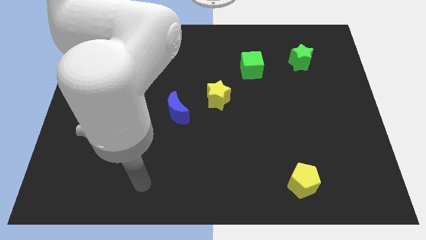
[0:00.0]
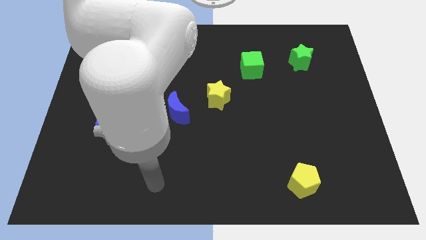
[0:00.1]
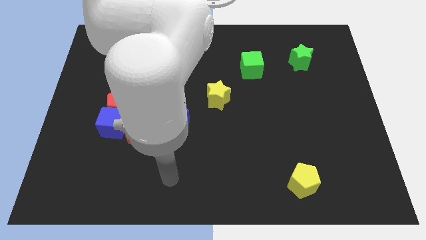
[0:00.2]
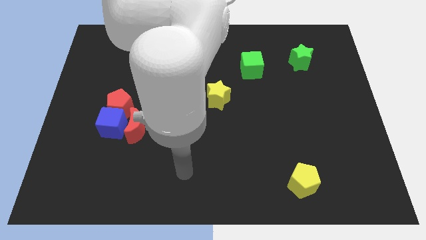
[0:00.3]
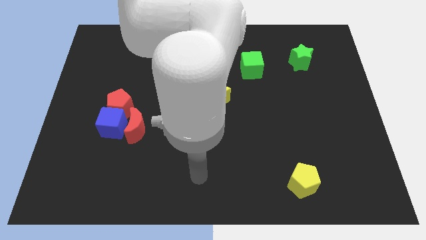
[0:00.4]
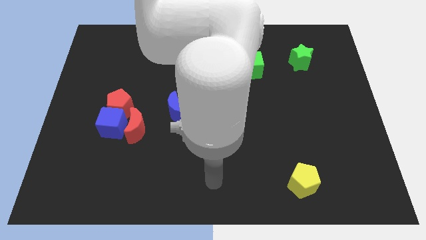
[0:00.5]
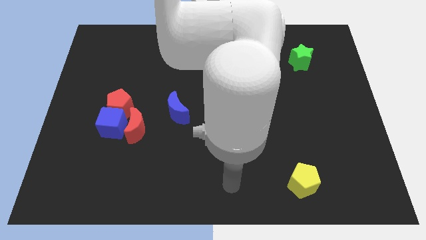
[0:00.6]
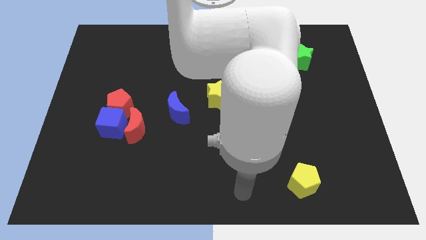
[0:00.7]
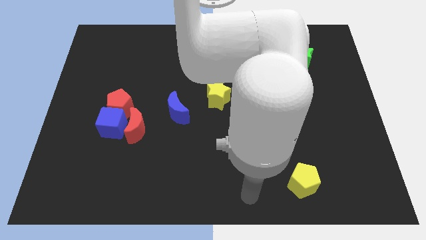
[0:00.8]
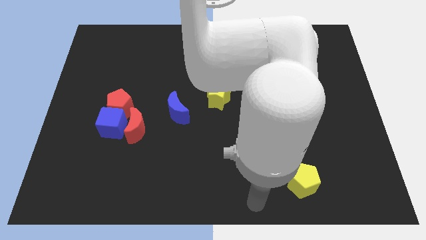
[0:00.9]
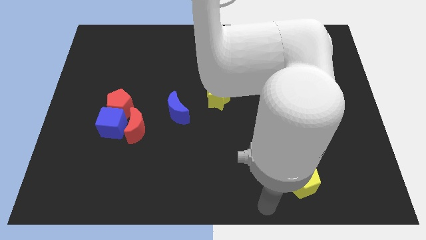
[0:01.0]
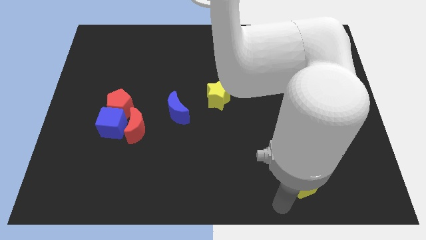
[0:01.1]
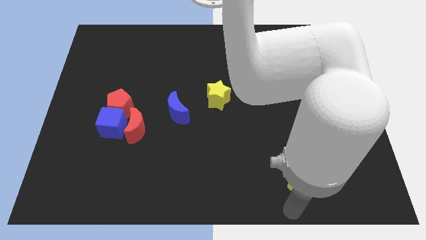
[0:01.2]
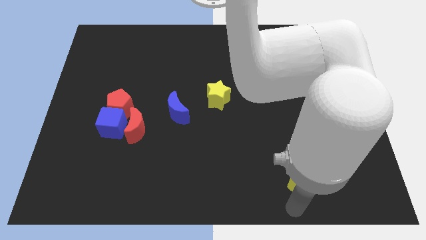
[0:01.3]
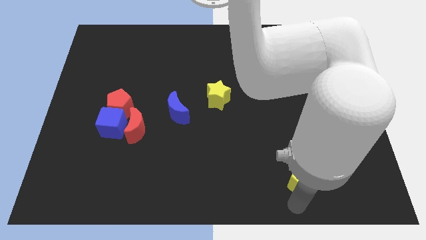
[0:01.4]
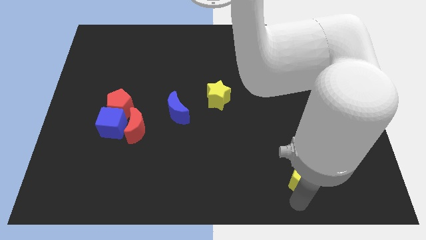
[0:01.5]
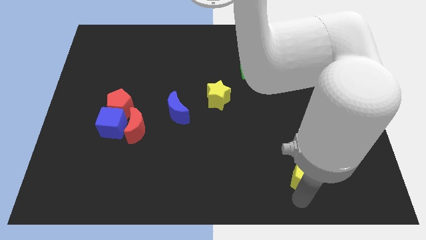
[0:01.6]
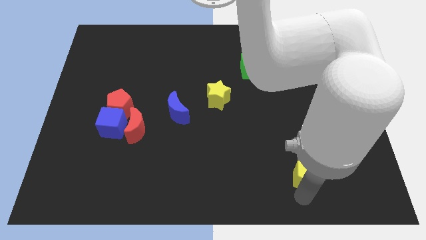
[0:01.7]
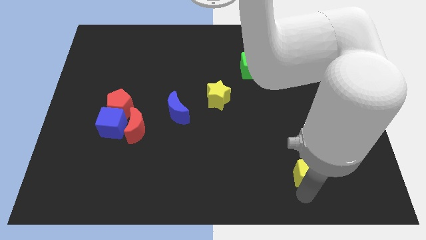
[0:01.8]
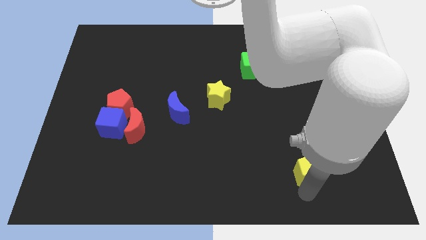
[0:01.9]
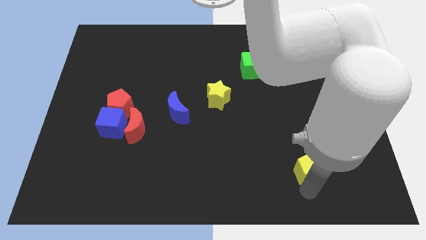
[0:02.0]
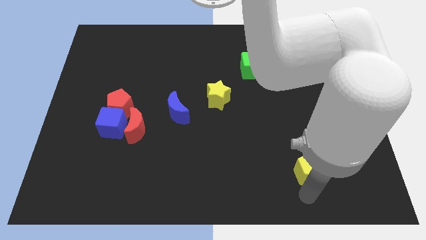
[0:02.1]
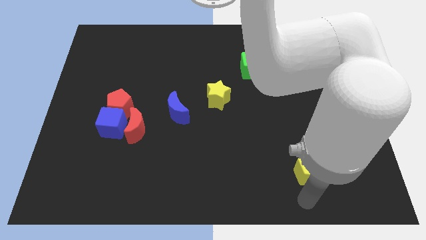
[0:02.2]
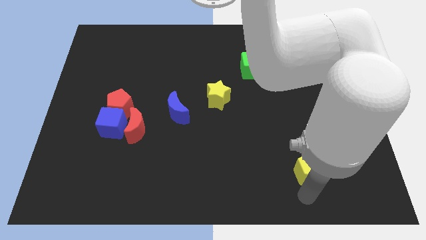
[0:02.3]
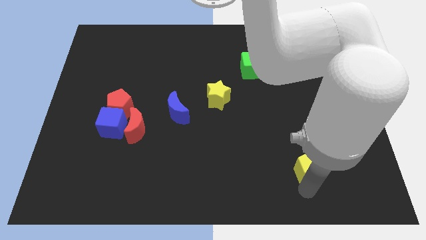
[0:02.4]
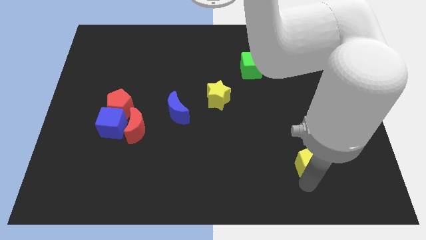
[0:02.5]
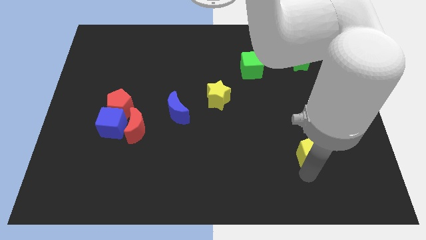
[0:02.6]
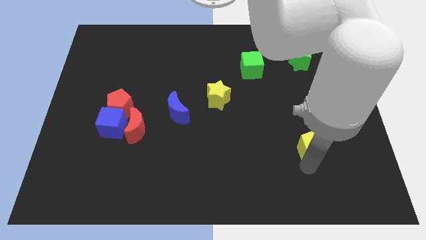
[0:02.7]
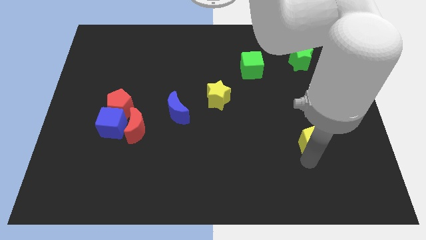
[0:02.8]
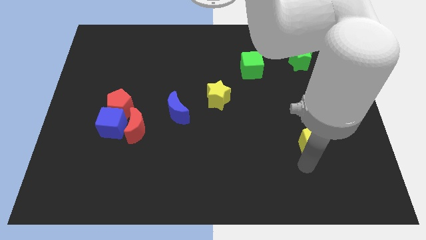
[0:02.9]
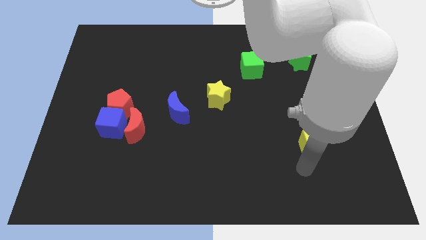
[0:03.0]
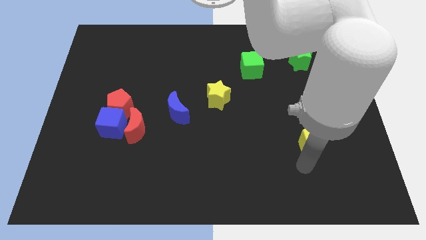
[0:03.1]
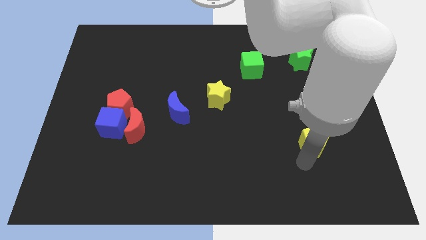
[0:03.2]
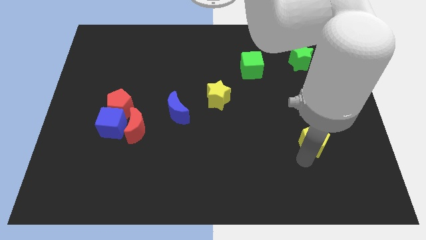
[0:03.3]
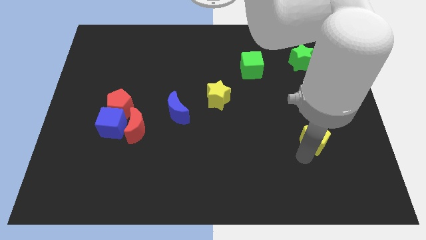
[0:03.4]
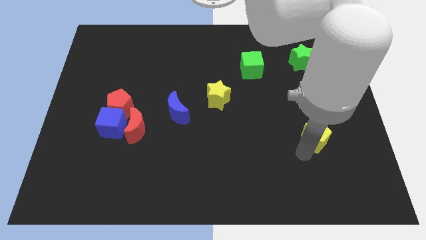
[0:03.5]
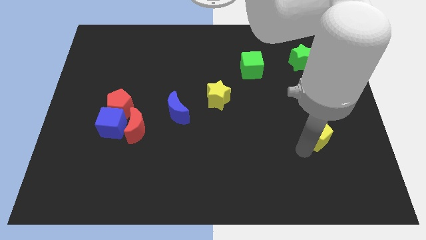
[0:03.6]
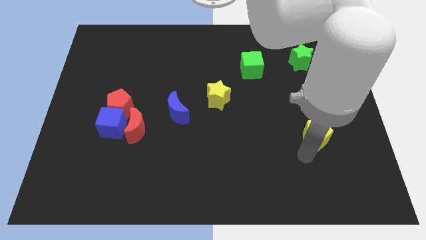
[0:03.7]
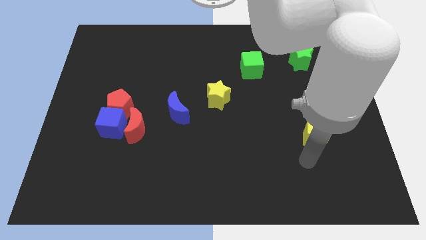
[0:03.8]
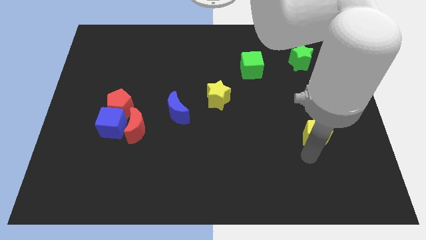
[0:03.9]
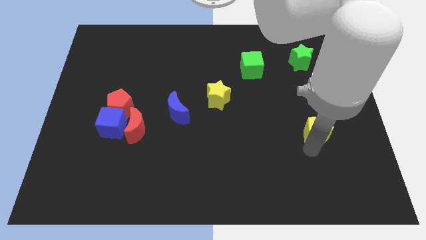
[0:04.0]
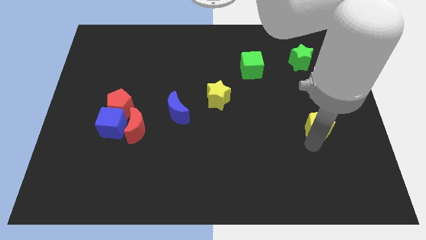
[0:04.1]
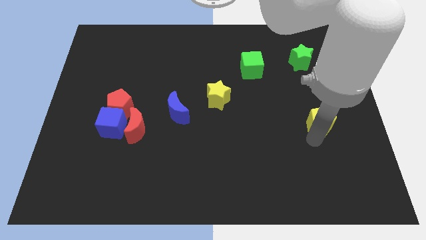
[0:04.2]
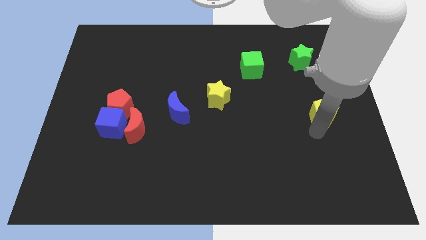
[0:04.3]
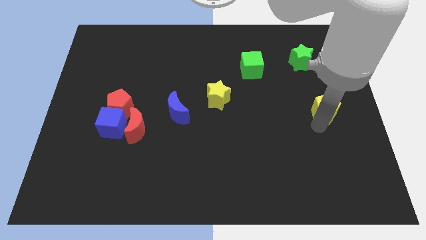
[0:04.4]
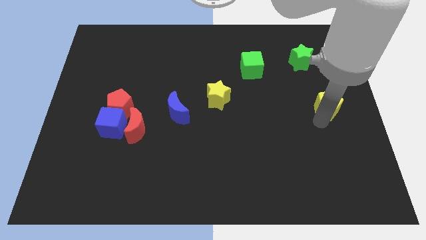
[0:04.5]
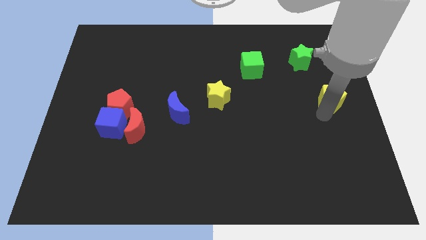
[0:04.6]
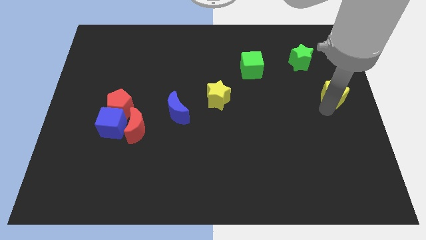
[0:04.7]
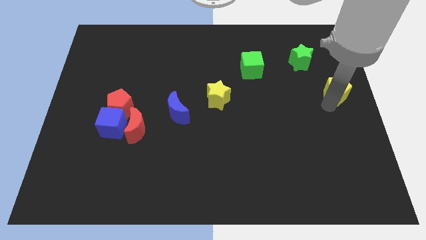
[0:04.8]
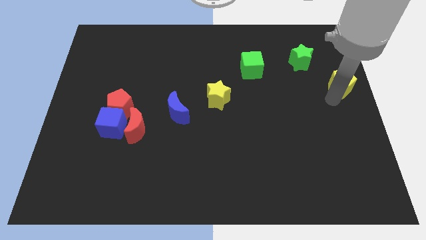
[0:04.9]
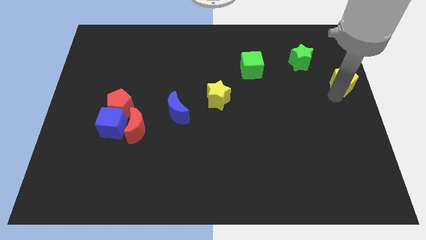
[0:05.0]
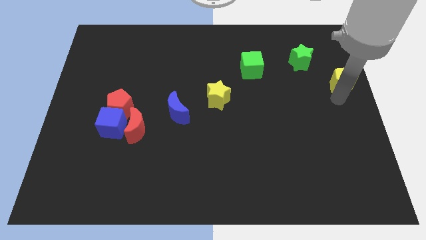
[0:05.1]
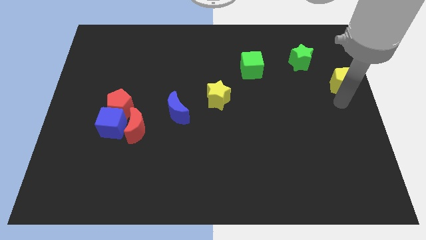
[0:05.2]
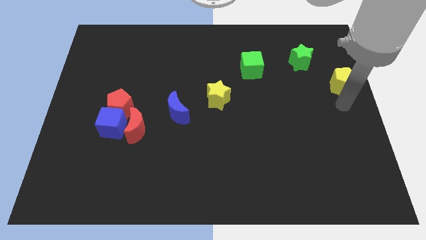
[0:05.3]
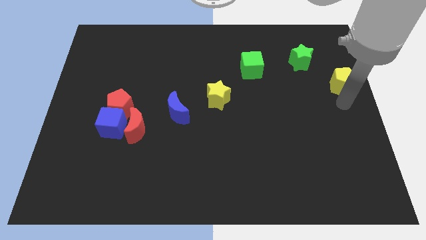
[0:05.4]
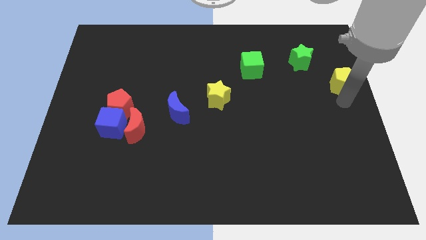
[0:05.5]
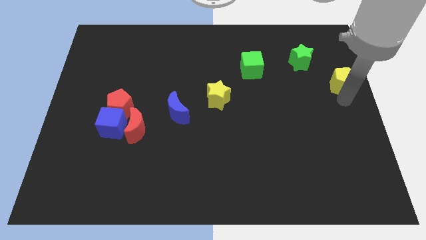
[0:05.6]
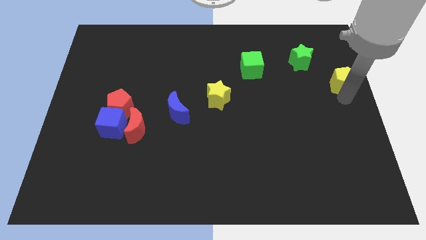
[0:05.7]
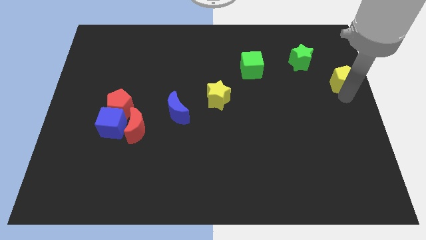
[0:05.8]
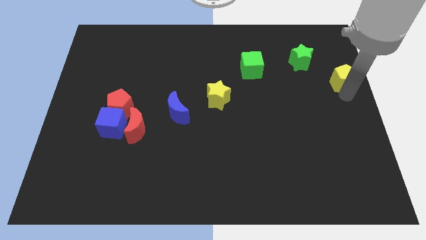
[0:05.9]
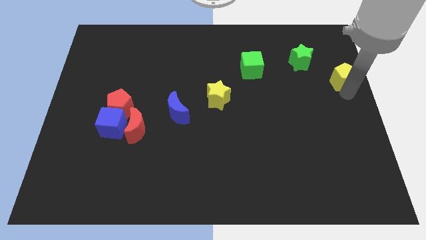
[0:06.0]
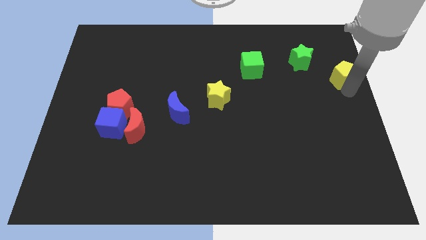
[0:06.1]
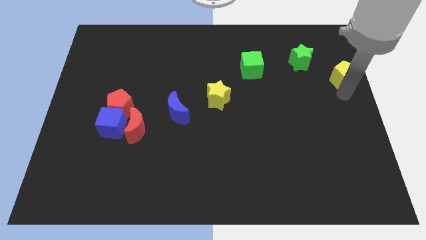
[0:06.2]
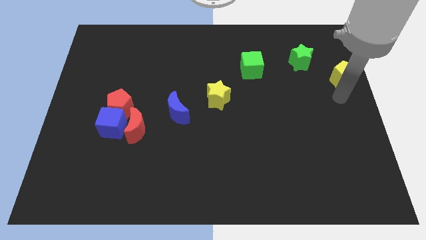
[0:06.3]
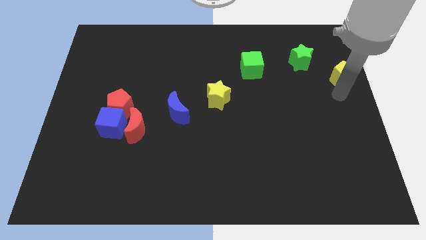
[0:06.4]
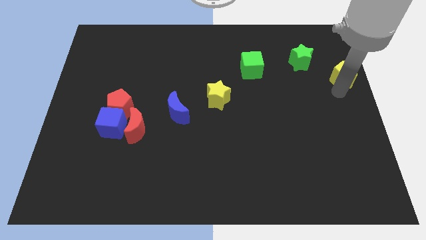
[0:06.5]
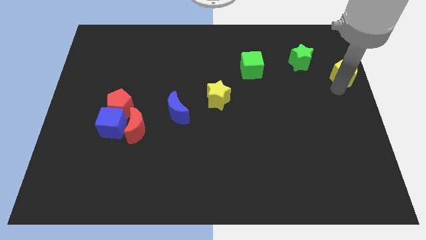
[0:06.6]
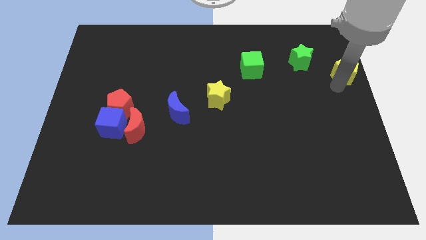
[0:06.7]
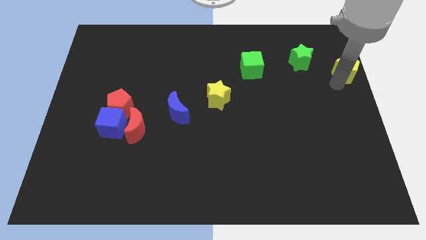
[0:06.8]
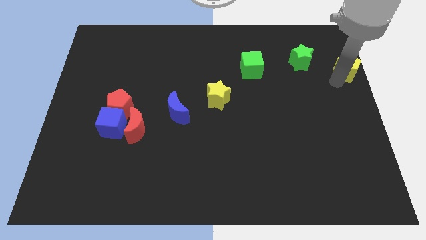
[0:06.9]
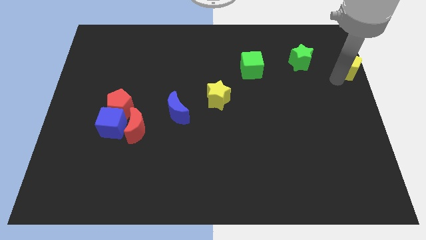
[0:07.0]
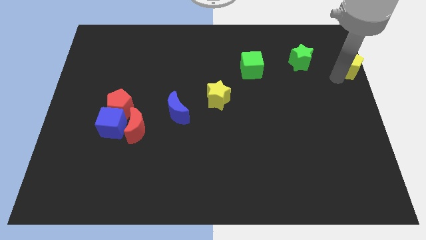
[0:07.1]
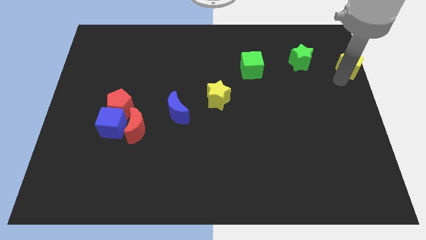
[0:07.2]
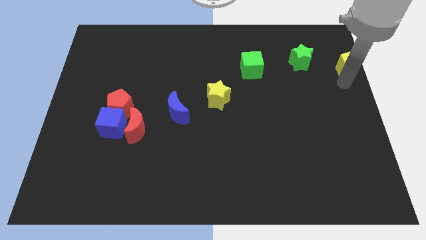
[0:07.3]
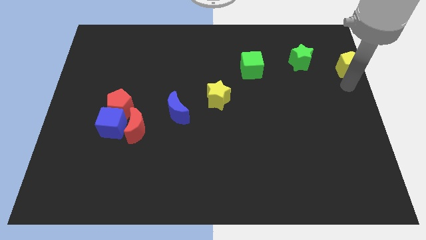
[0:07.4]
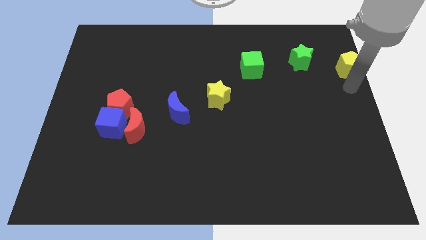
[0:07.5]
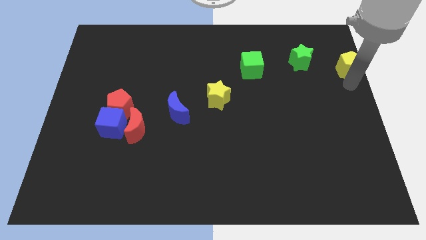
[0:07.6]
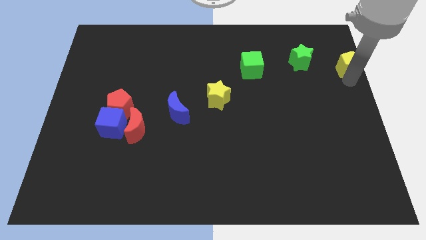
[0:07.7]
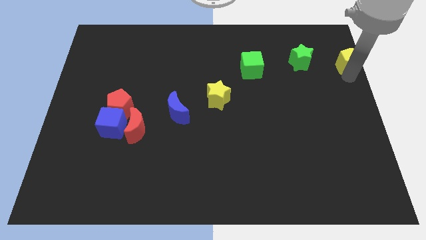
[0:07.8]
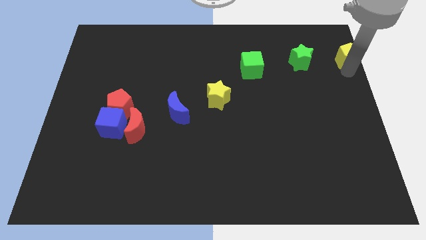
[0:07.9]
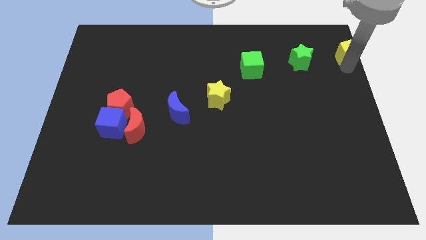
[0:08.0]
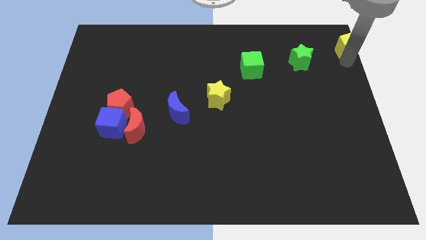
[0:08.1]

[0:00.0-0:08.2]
move the yellow pentagon to the top right of the board
